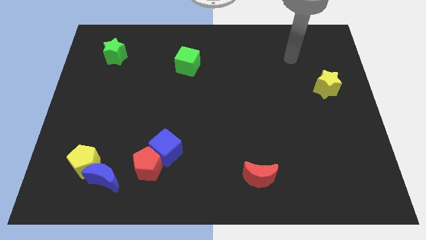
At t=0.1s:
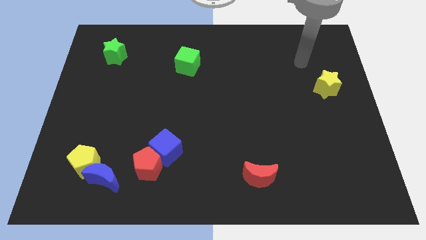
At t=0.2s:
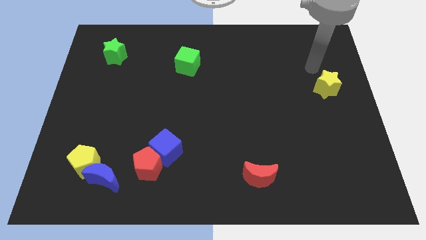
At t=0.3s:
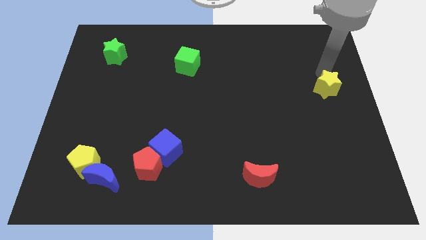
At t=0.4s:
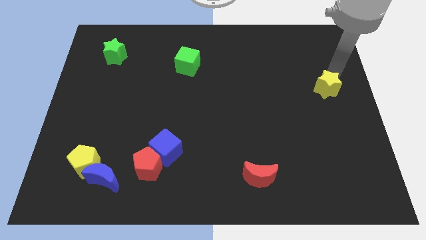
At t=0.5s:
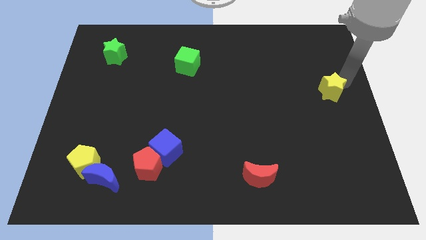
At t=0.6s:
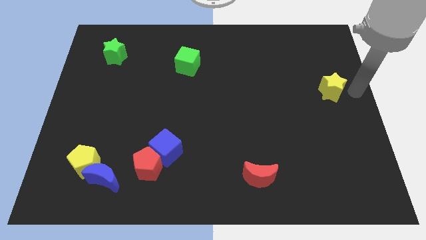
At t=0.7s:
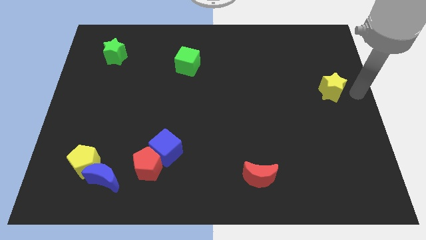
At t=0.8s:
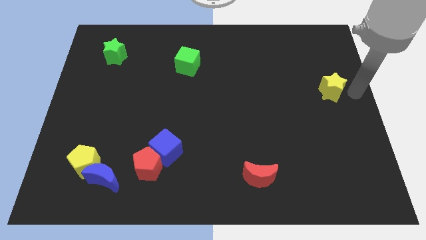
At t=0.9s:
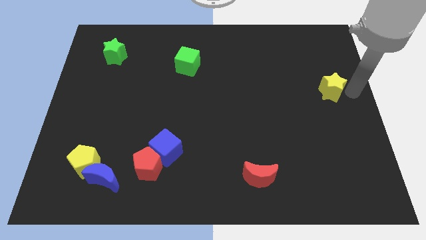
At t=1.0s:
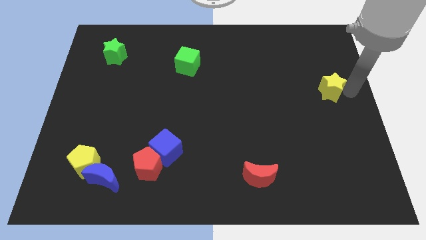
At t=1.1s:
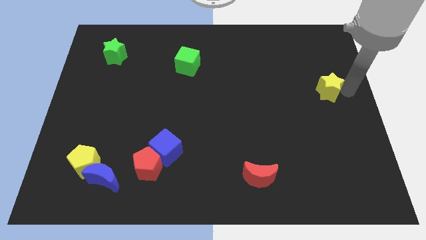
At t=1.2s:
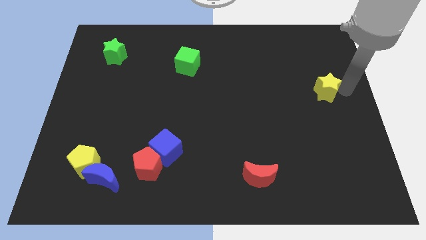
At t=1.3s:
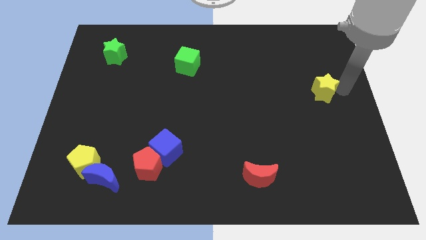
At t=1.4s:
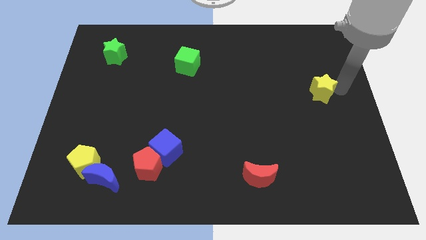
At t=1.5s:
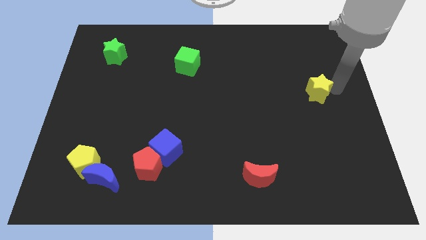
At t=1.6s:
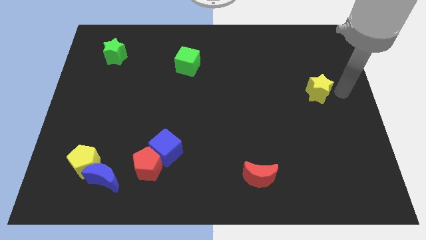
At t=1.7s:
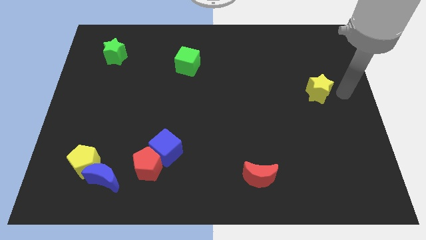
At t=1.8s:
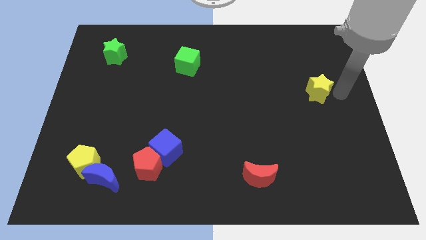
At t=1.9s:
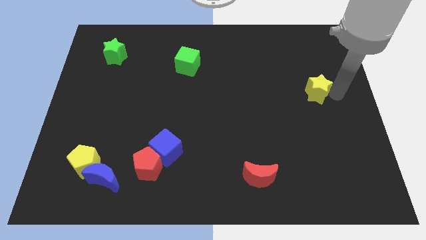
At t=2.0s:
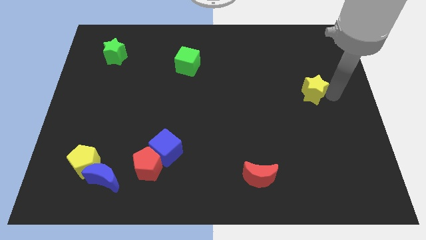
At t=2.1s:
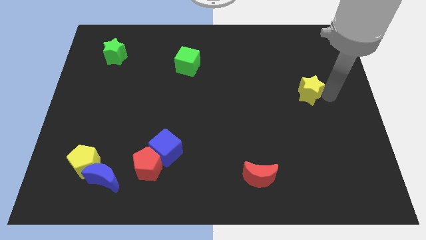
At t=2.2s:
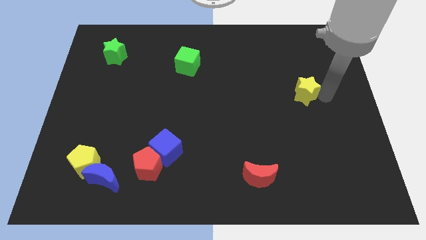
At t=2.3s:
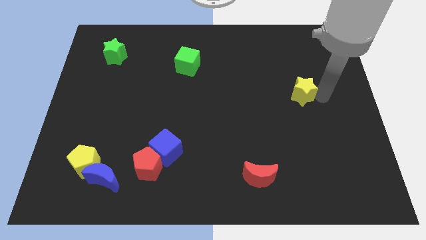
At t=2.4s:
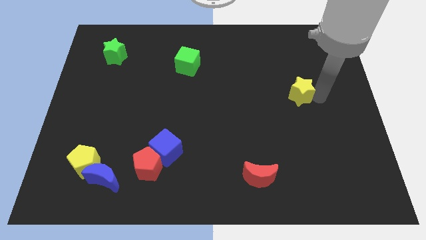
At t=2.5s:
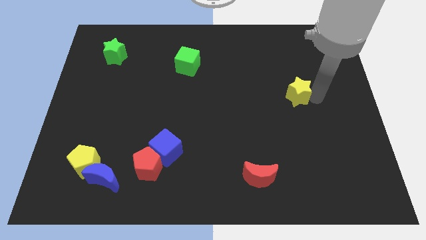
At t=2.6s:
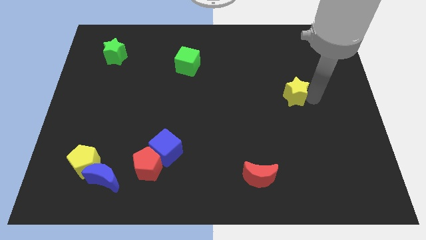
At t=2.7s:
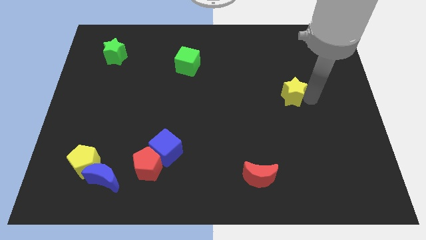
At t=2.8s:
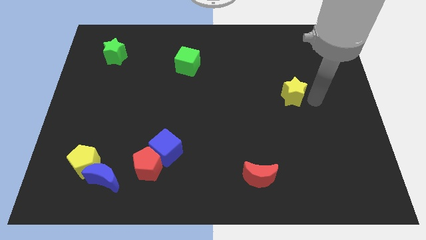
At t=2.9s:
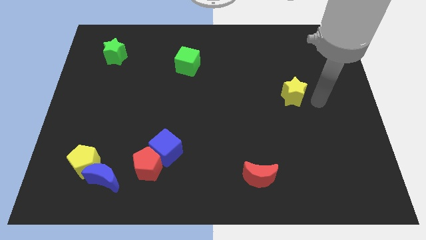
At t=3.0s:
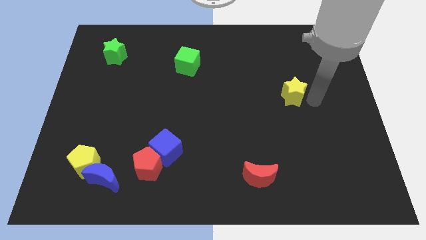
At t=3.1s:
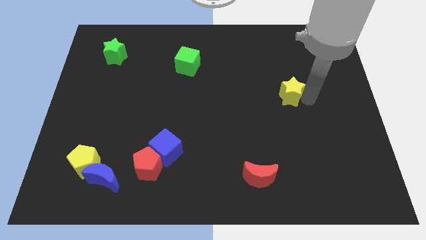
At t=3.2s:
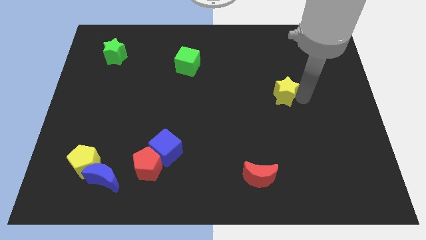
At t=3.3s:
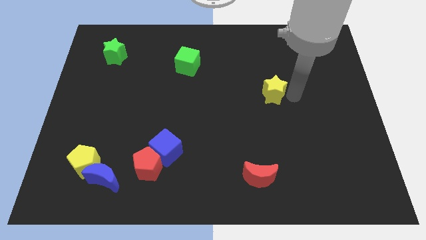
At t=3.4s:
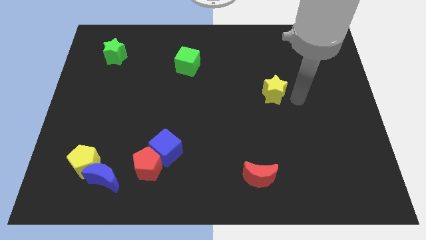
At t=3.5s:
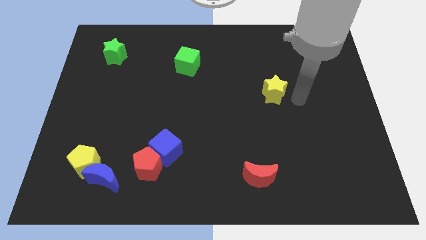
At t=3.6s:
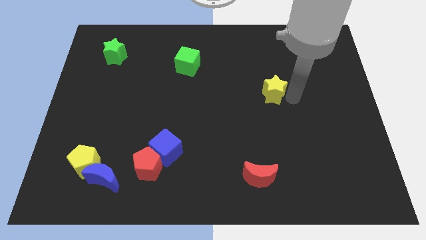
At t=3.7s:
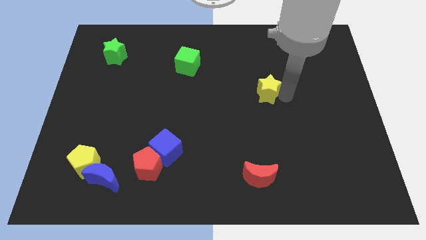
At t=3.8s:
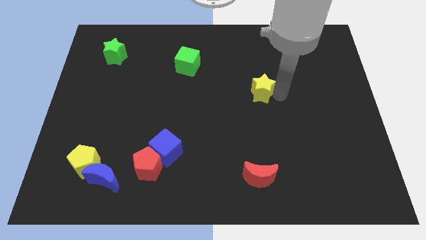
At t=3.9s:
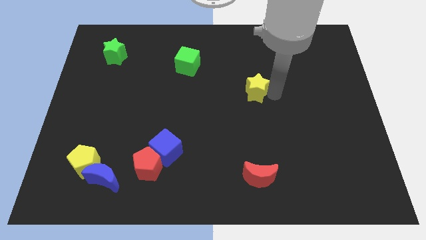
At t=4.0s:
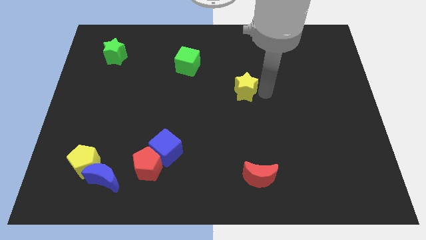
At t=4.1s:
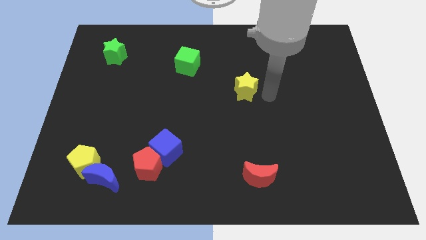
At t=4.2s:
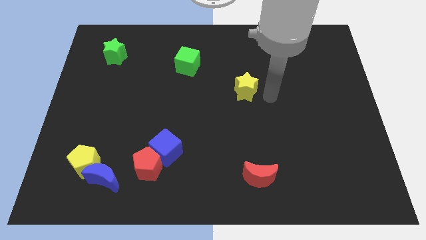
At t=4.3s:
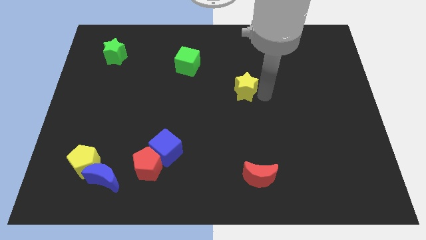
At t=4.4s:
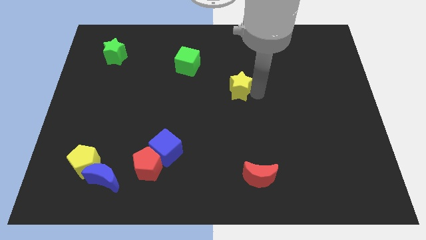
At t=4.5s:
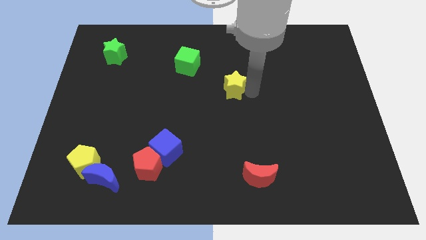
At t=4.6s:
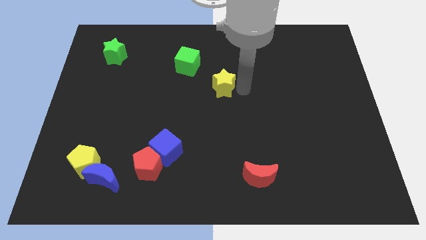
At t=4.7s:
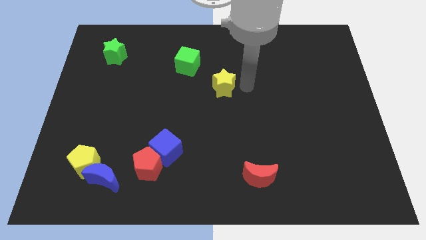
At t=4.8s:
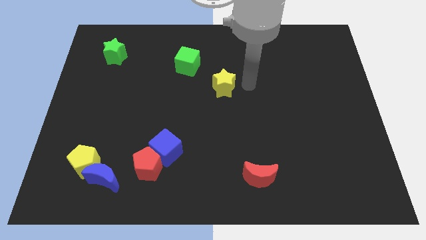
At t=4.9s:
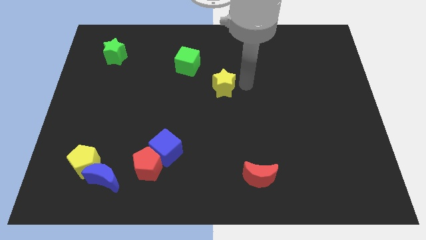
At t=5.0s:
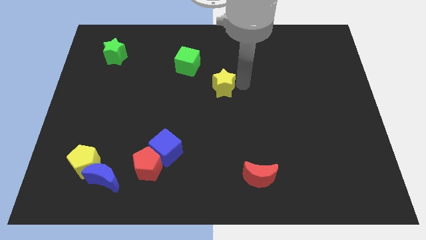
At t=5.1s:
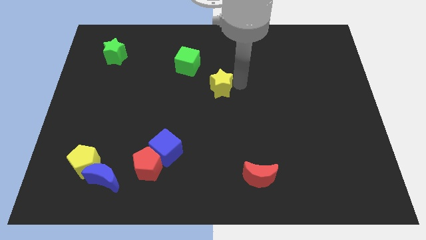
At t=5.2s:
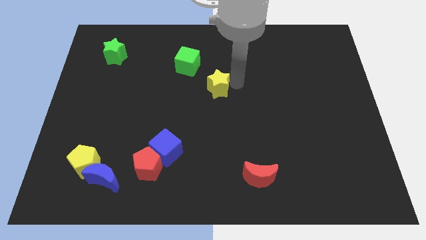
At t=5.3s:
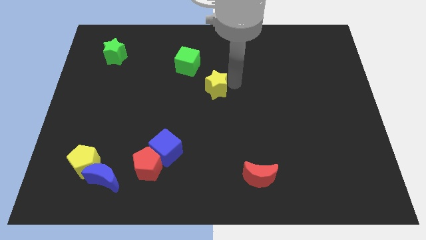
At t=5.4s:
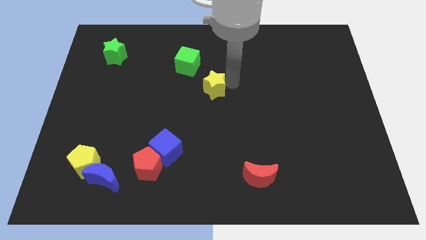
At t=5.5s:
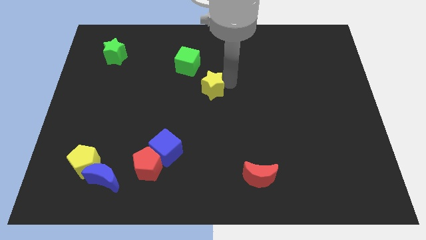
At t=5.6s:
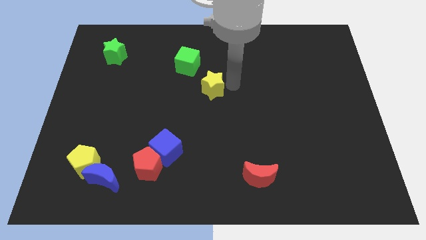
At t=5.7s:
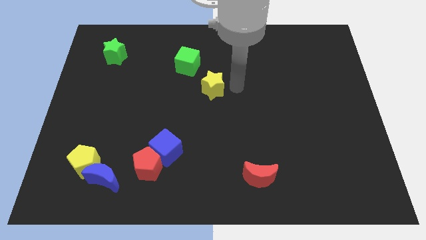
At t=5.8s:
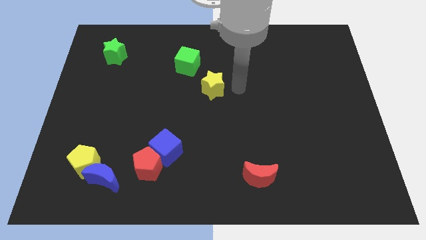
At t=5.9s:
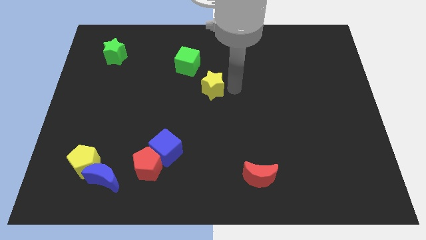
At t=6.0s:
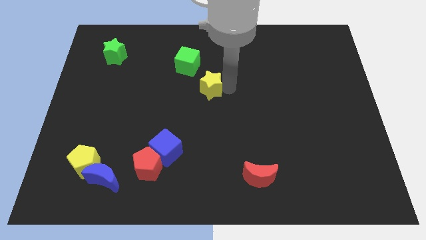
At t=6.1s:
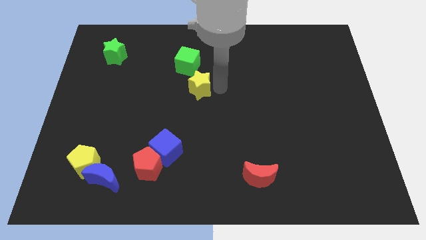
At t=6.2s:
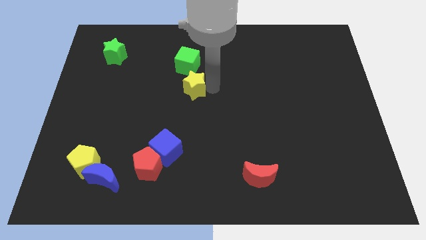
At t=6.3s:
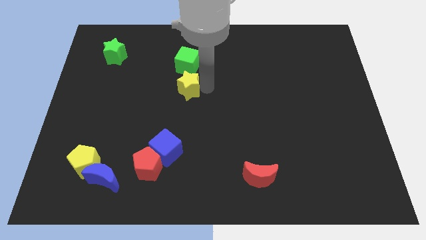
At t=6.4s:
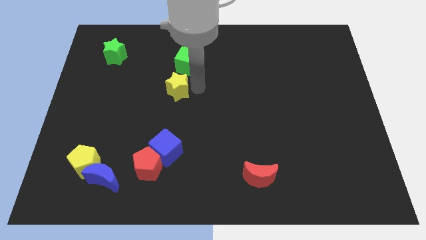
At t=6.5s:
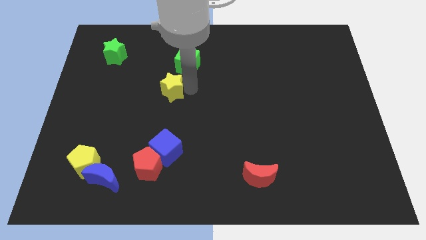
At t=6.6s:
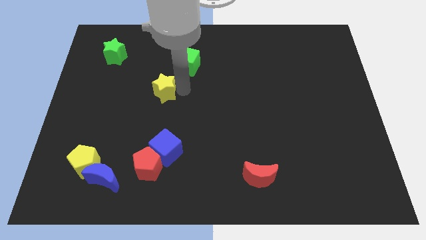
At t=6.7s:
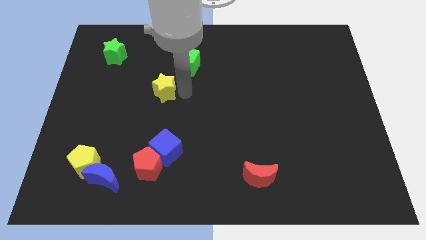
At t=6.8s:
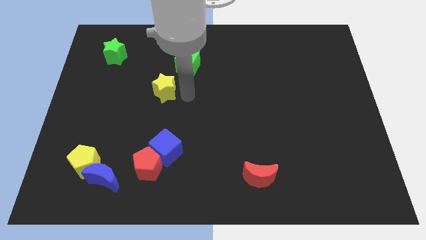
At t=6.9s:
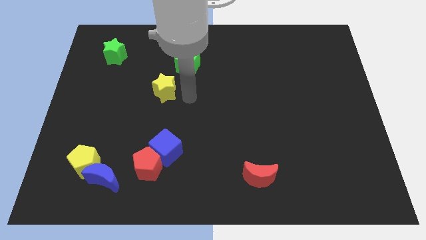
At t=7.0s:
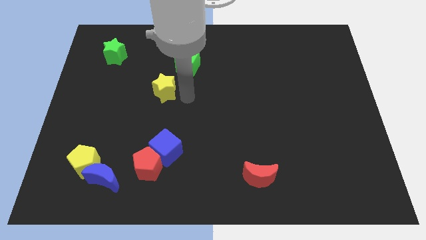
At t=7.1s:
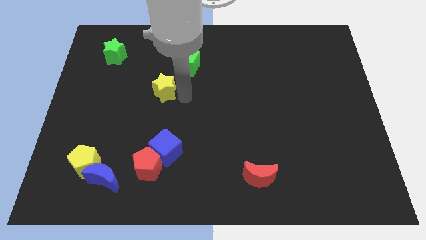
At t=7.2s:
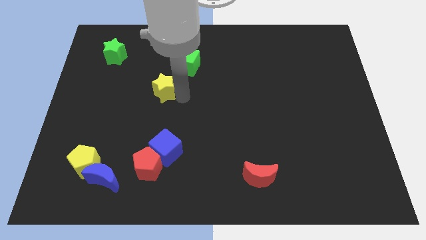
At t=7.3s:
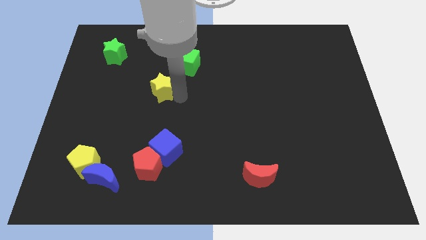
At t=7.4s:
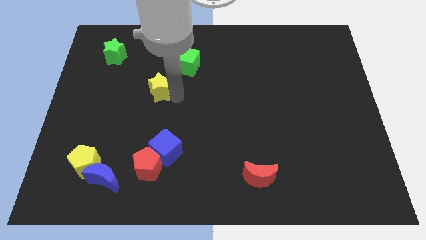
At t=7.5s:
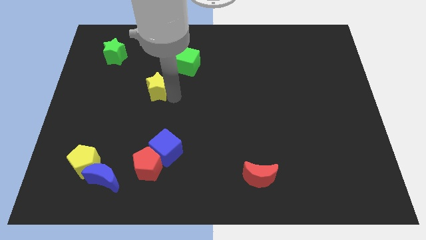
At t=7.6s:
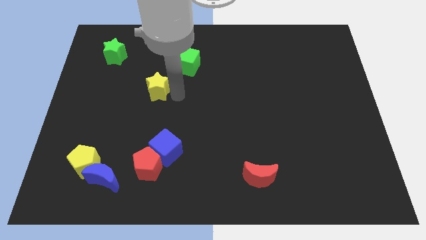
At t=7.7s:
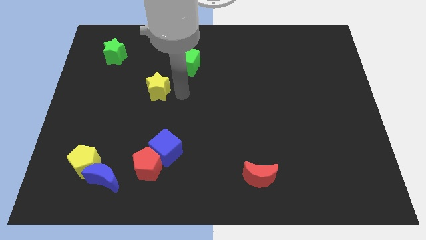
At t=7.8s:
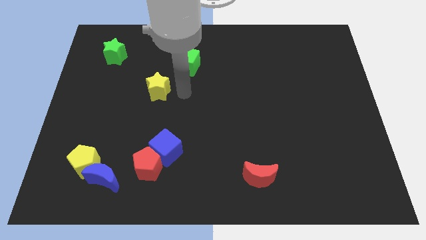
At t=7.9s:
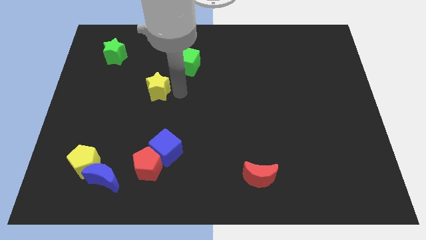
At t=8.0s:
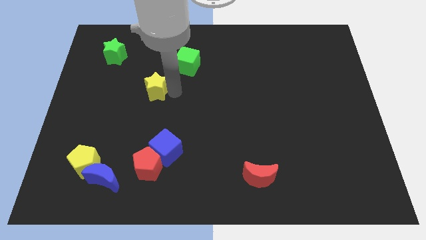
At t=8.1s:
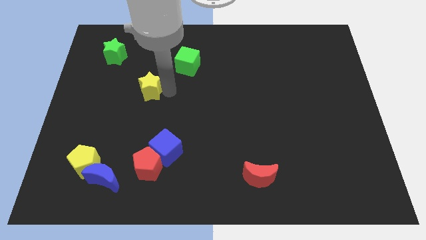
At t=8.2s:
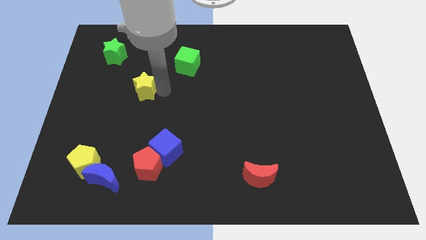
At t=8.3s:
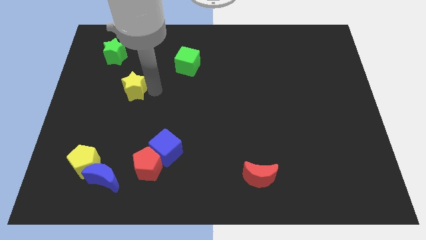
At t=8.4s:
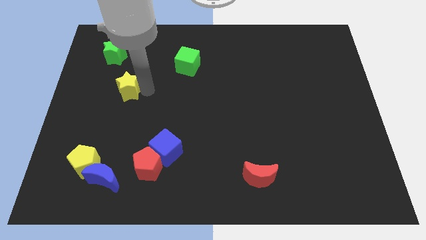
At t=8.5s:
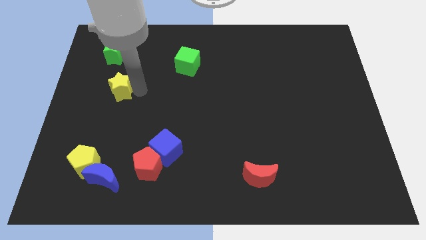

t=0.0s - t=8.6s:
push the yellow star to the bottom of the green star
